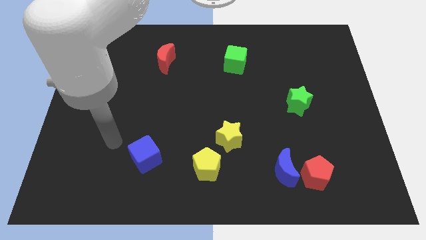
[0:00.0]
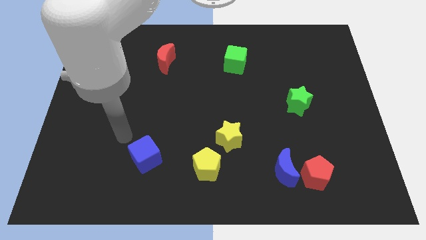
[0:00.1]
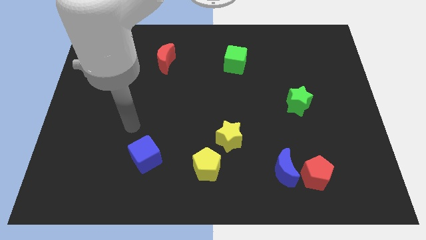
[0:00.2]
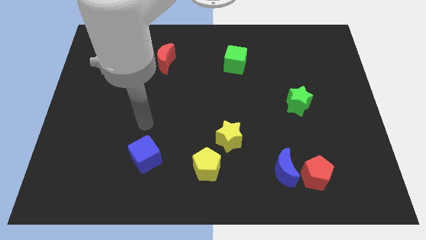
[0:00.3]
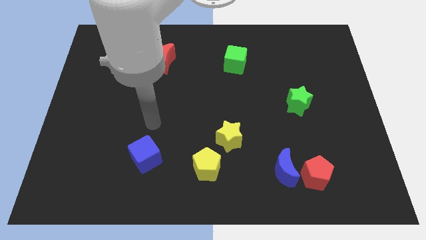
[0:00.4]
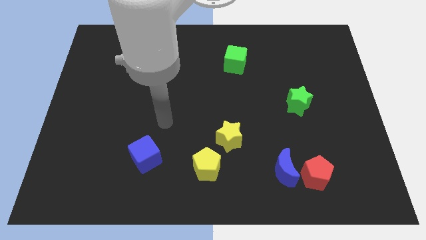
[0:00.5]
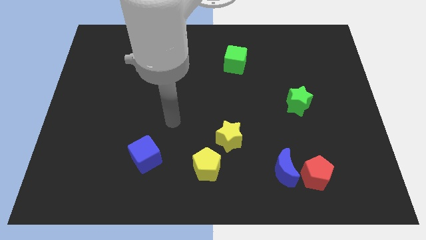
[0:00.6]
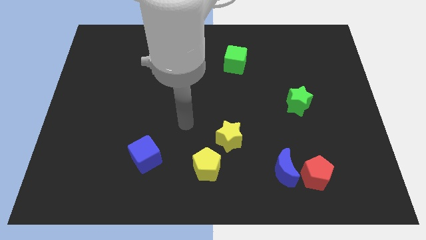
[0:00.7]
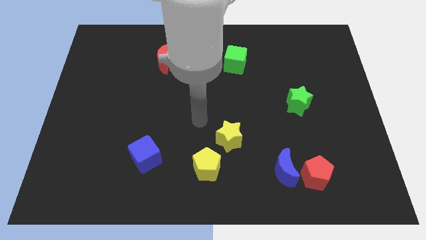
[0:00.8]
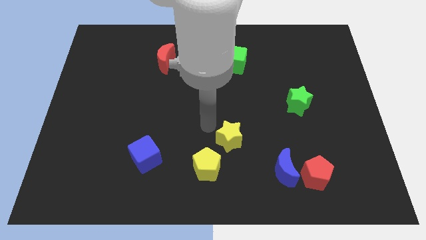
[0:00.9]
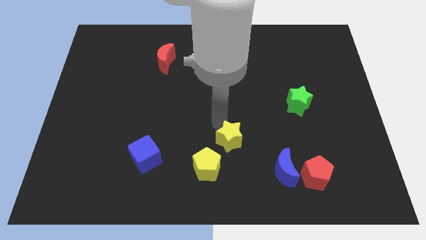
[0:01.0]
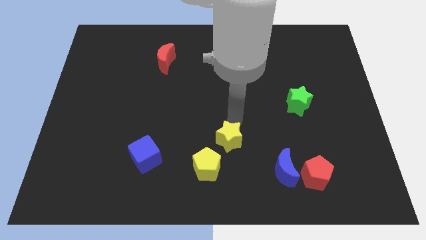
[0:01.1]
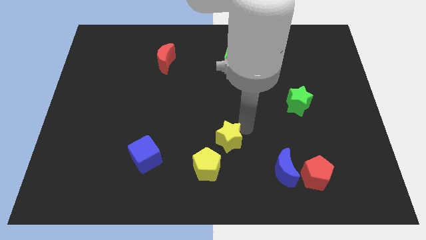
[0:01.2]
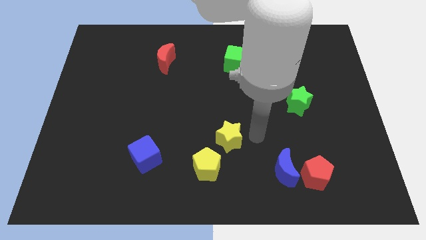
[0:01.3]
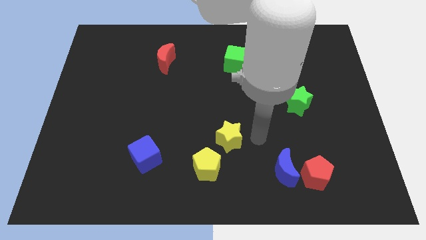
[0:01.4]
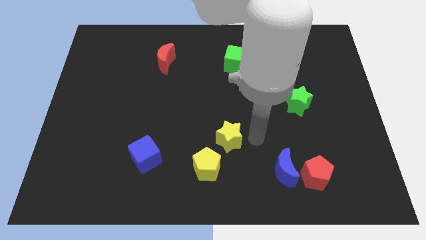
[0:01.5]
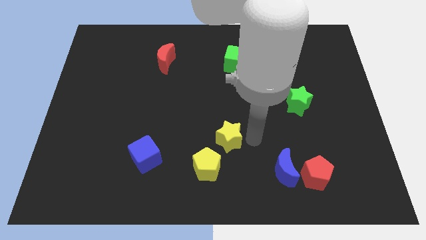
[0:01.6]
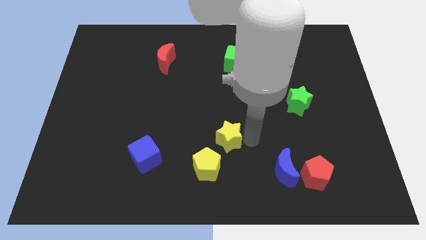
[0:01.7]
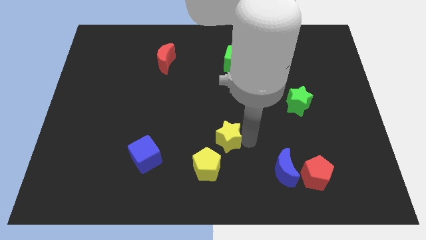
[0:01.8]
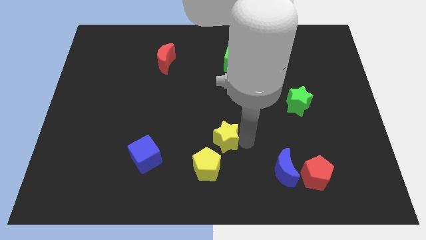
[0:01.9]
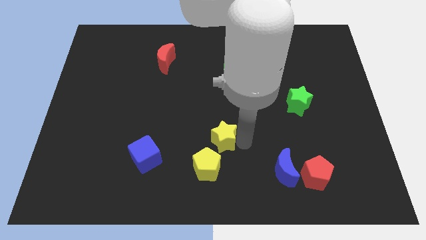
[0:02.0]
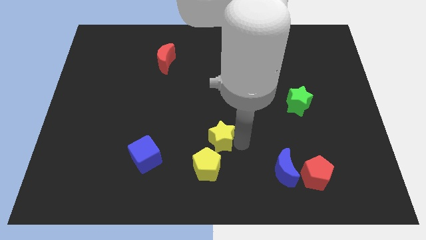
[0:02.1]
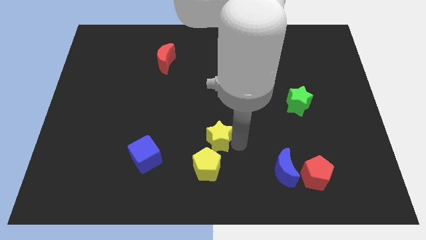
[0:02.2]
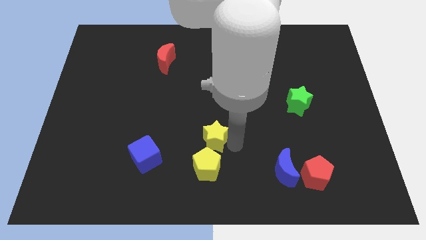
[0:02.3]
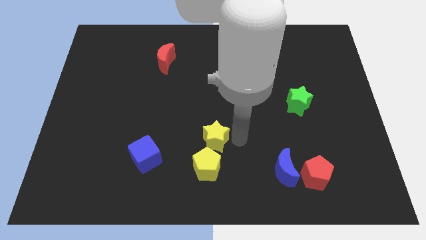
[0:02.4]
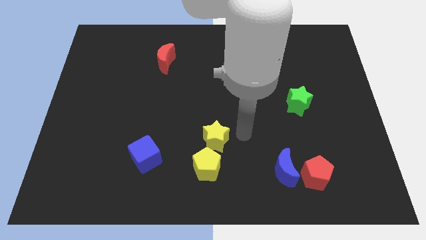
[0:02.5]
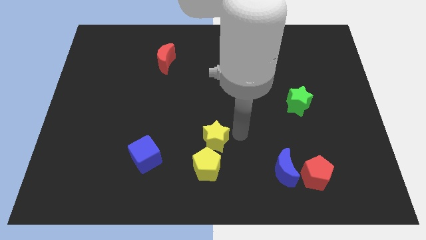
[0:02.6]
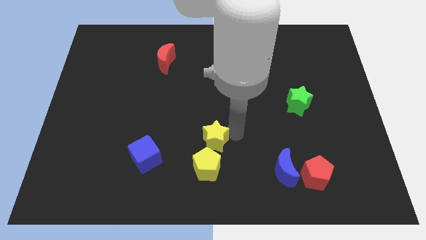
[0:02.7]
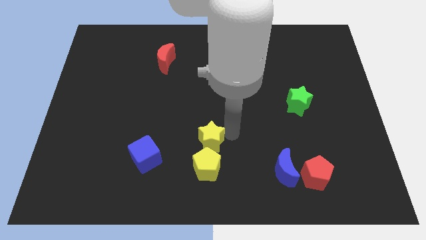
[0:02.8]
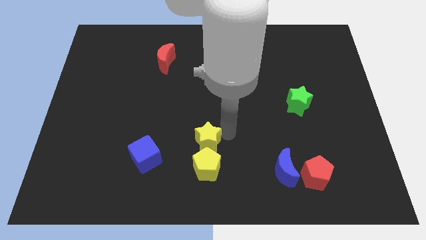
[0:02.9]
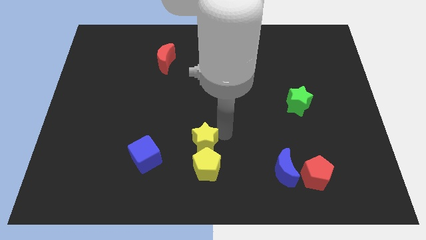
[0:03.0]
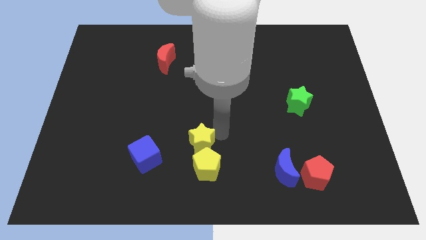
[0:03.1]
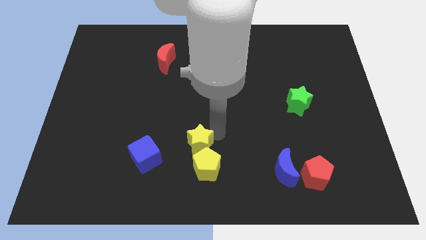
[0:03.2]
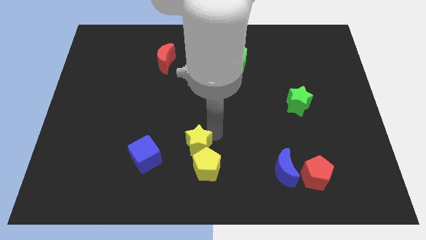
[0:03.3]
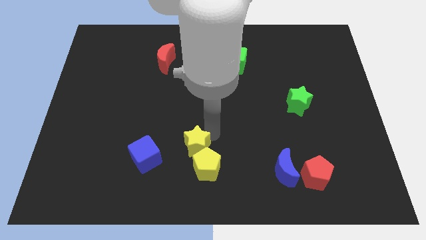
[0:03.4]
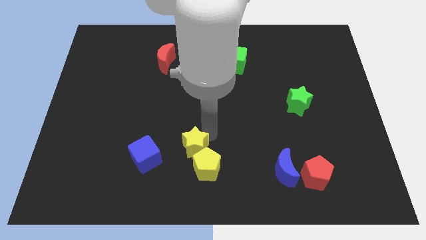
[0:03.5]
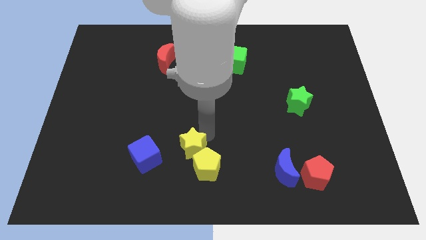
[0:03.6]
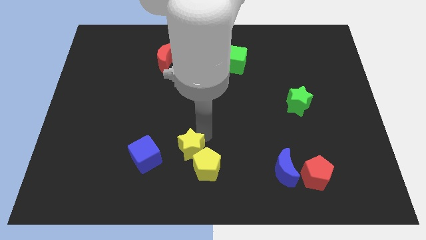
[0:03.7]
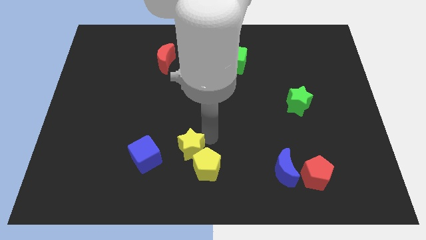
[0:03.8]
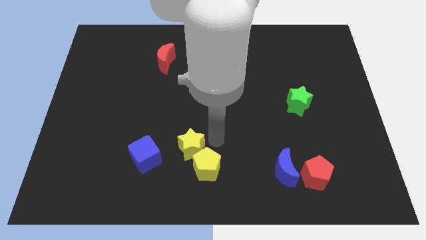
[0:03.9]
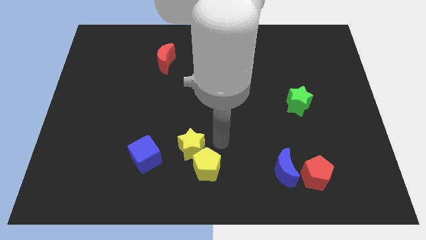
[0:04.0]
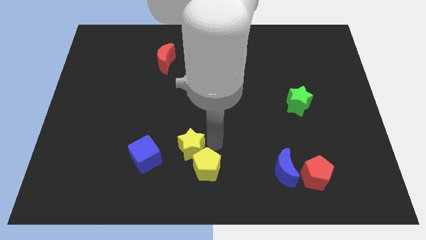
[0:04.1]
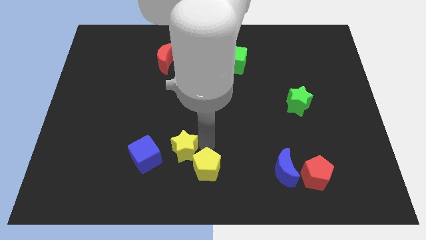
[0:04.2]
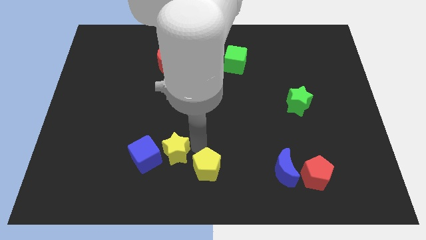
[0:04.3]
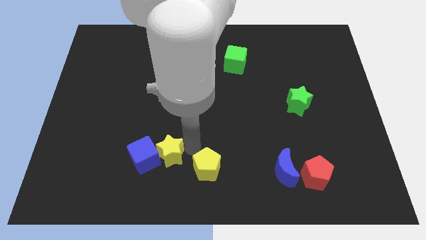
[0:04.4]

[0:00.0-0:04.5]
move the yellow star next to the blue cube

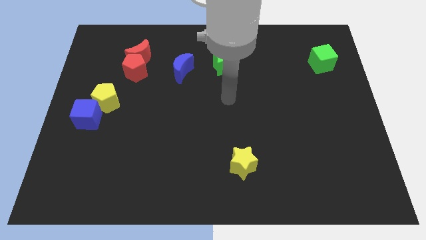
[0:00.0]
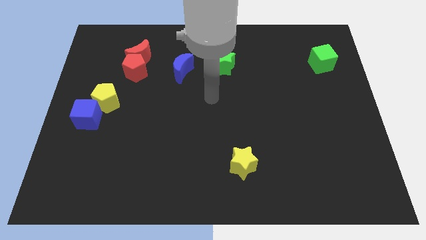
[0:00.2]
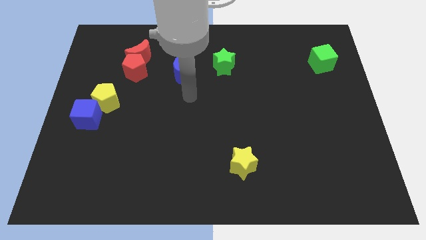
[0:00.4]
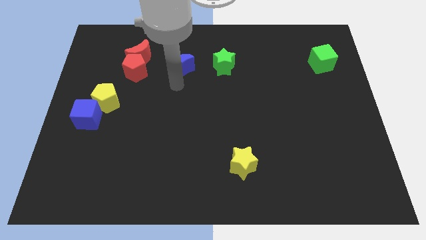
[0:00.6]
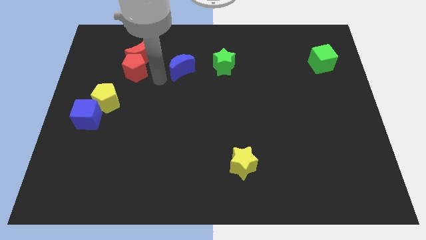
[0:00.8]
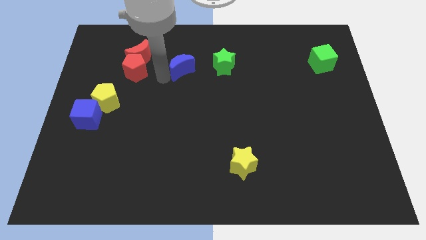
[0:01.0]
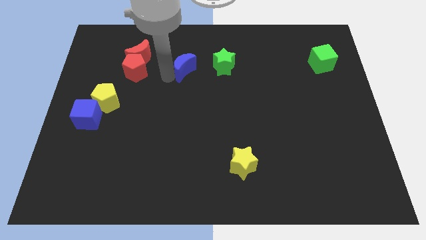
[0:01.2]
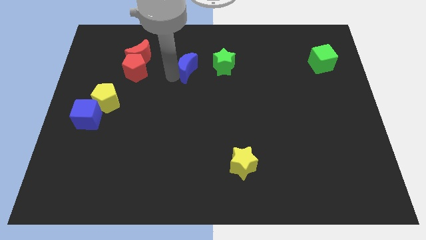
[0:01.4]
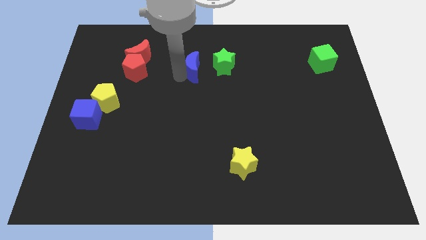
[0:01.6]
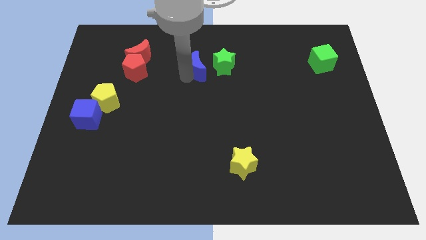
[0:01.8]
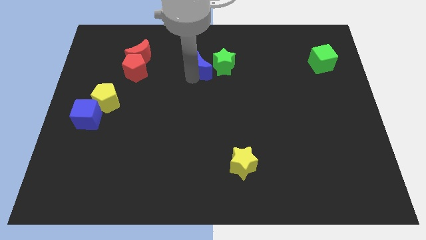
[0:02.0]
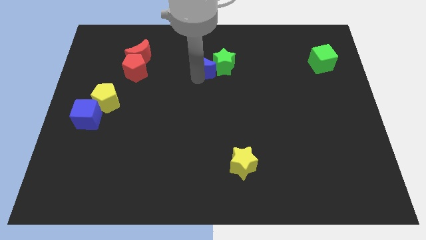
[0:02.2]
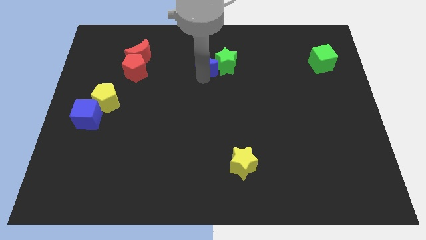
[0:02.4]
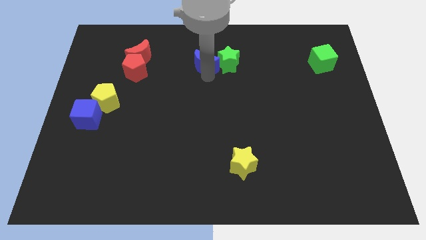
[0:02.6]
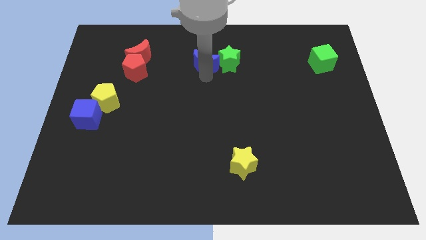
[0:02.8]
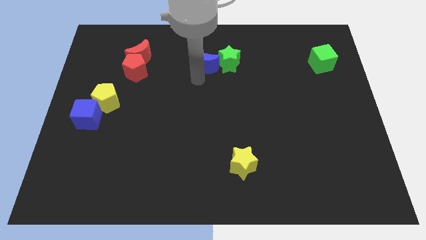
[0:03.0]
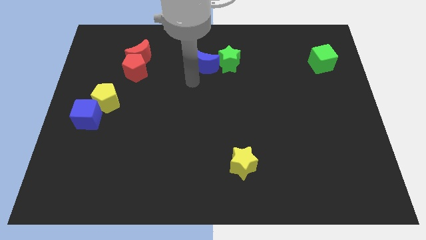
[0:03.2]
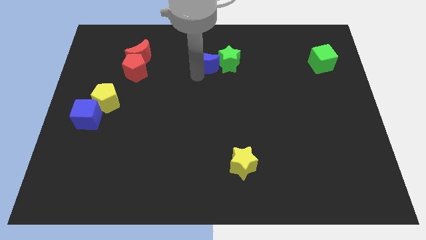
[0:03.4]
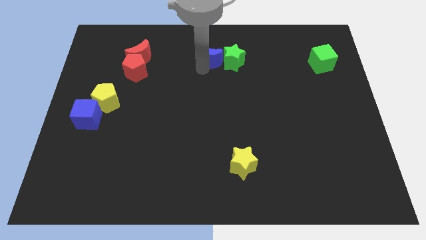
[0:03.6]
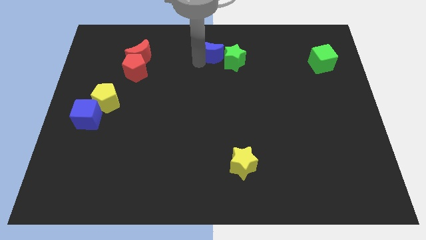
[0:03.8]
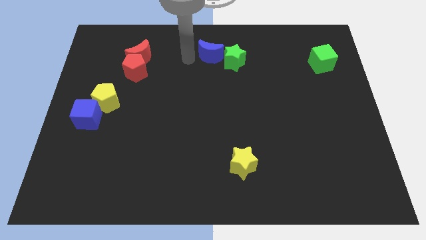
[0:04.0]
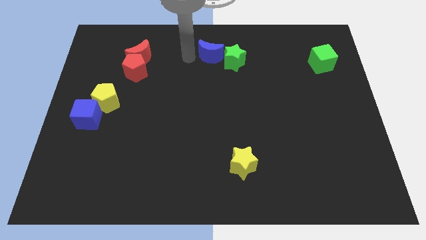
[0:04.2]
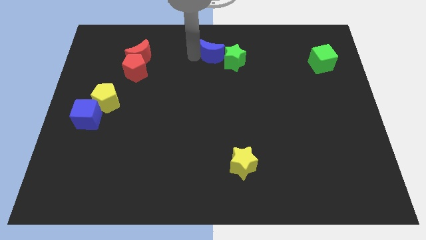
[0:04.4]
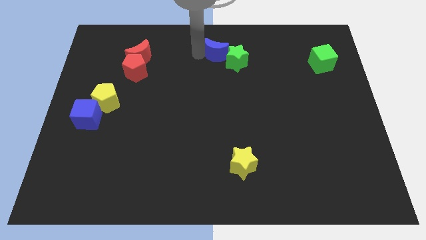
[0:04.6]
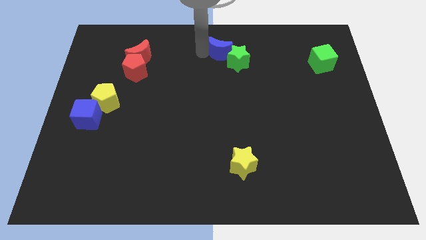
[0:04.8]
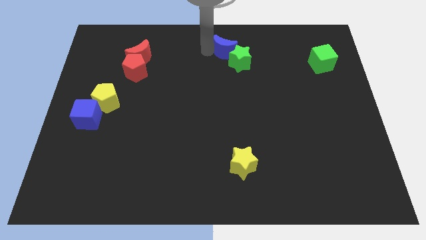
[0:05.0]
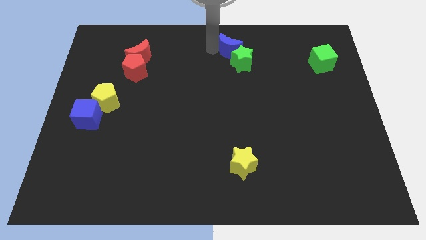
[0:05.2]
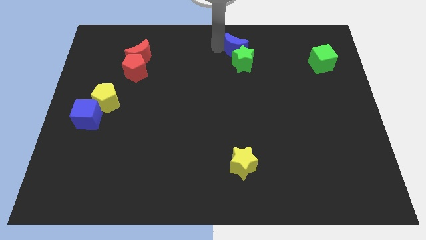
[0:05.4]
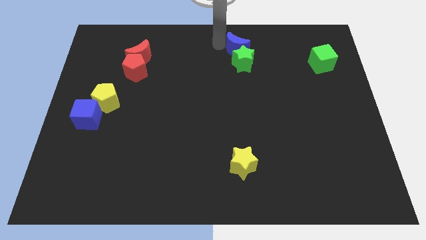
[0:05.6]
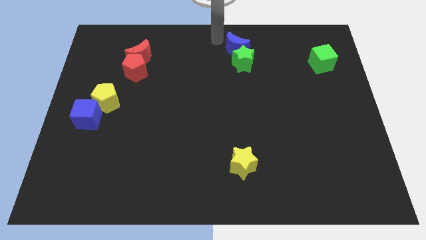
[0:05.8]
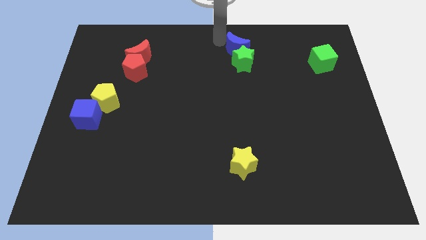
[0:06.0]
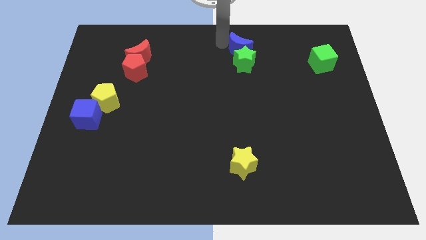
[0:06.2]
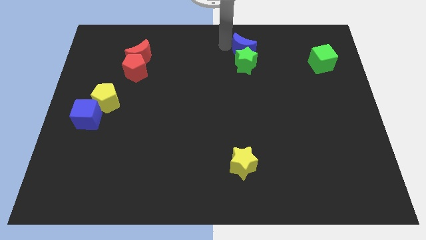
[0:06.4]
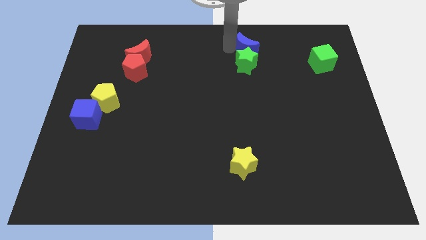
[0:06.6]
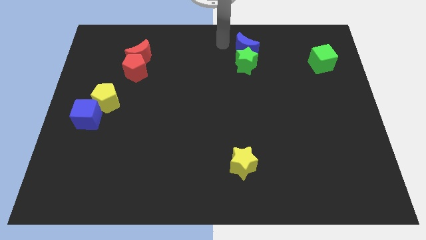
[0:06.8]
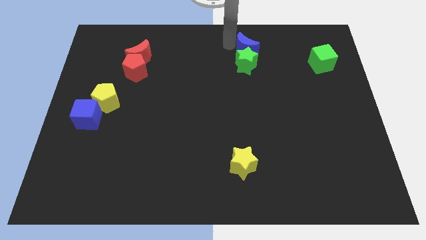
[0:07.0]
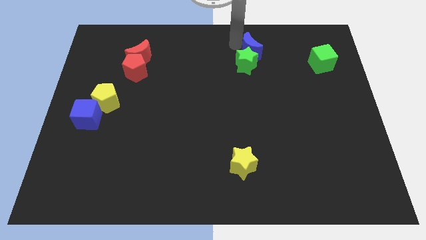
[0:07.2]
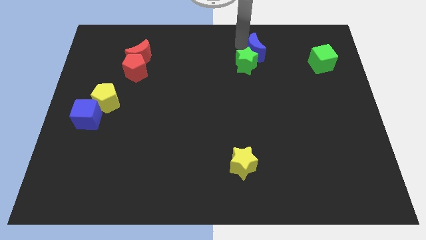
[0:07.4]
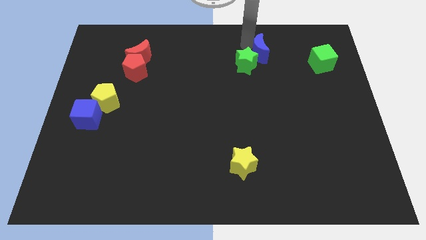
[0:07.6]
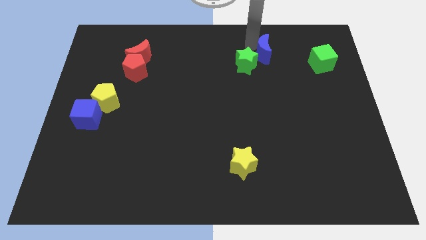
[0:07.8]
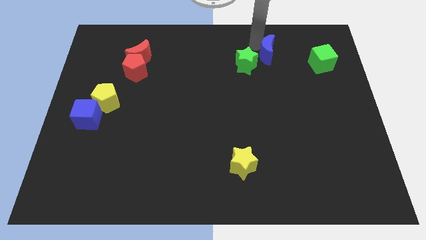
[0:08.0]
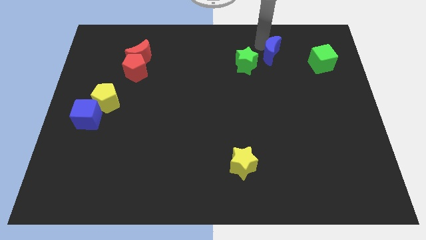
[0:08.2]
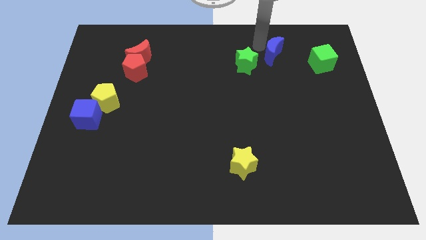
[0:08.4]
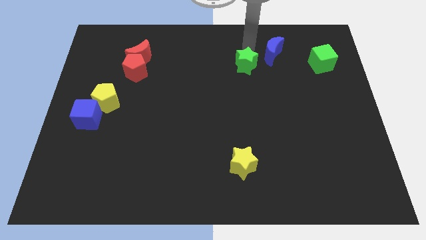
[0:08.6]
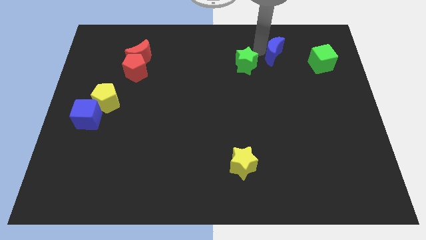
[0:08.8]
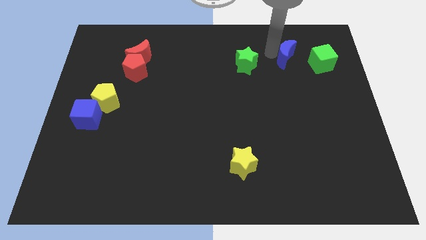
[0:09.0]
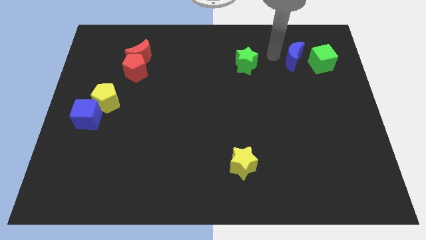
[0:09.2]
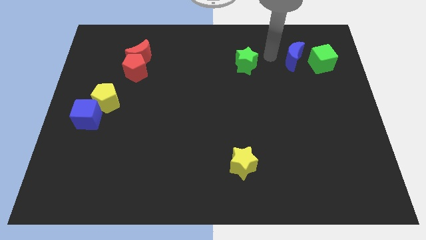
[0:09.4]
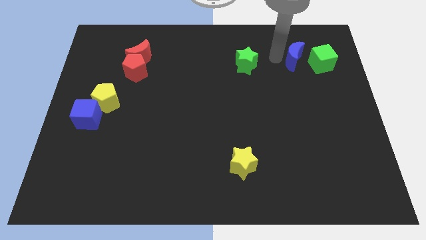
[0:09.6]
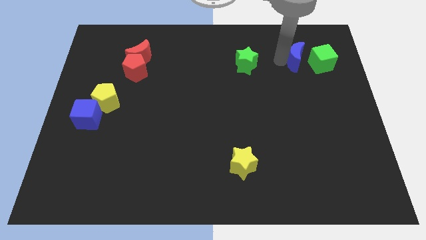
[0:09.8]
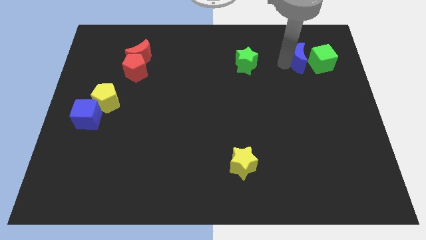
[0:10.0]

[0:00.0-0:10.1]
slide the blue moon close to the green cube
